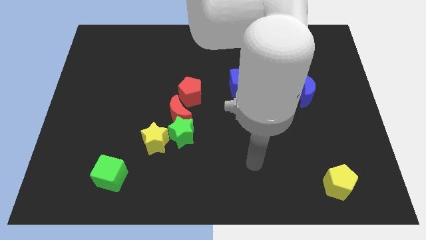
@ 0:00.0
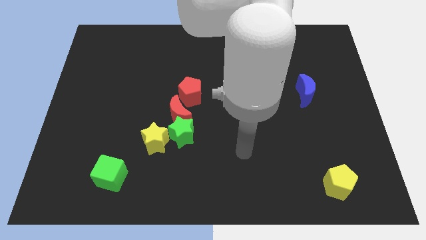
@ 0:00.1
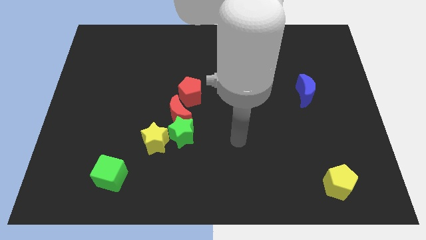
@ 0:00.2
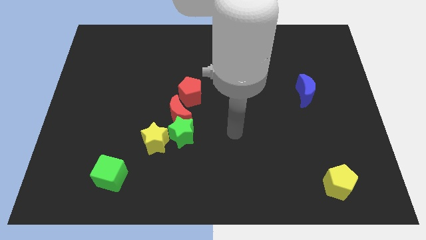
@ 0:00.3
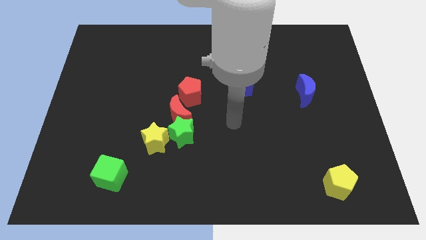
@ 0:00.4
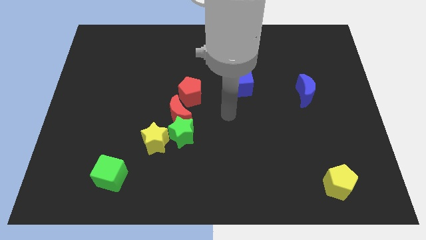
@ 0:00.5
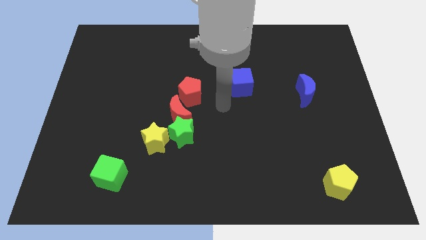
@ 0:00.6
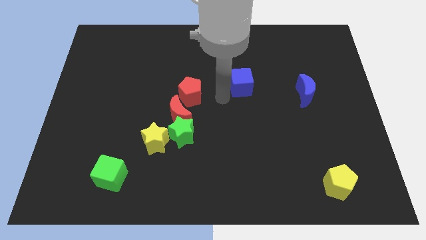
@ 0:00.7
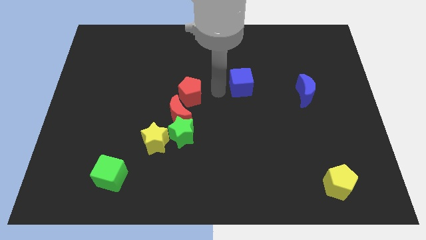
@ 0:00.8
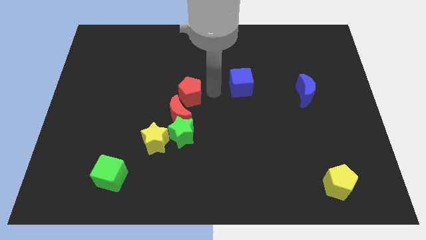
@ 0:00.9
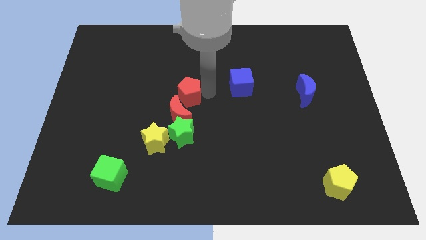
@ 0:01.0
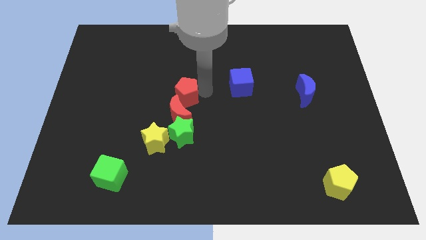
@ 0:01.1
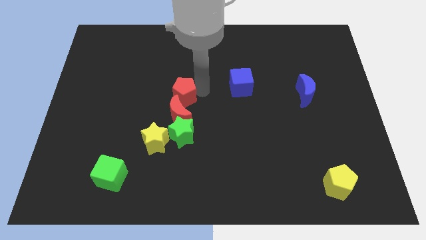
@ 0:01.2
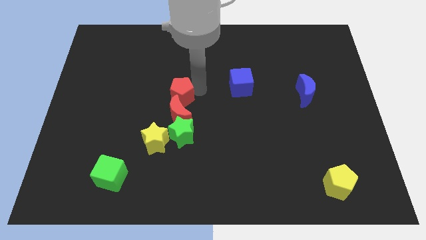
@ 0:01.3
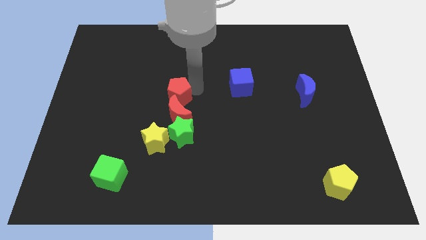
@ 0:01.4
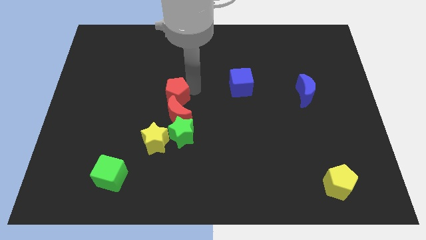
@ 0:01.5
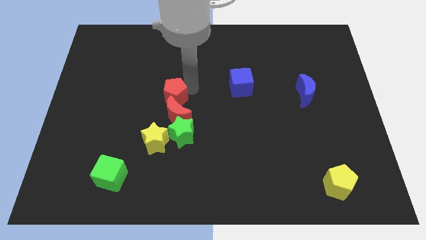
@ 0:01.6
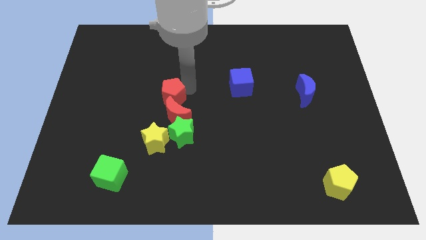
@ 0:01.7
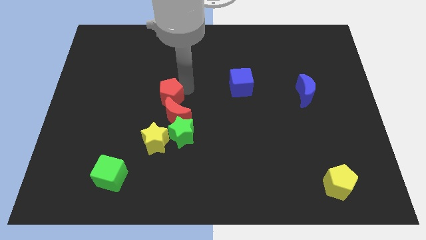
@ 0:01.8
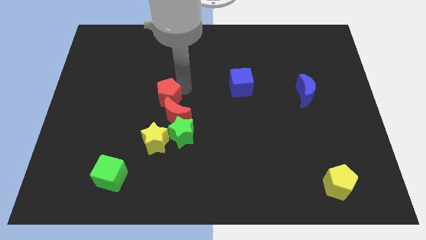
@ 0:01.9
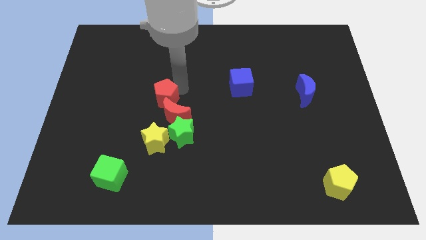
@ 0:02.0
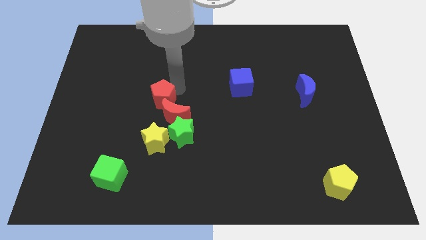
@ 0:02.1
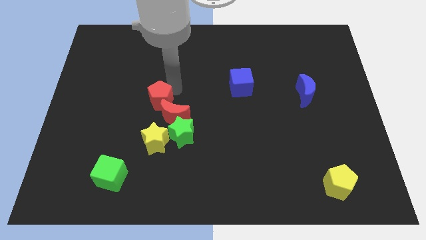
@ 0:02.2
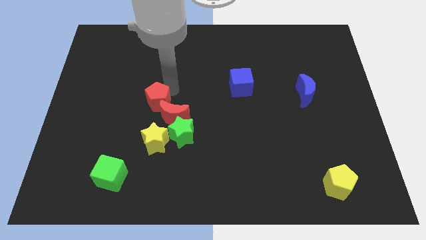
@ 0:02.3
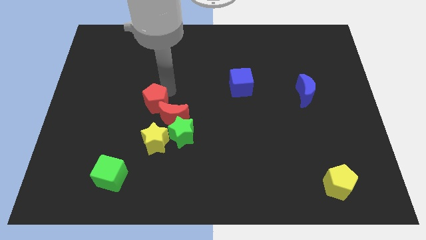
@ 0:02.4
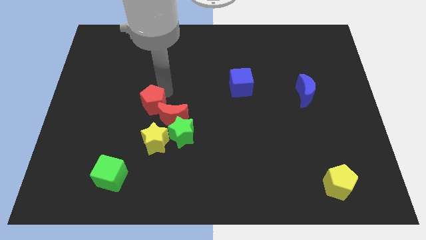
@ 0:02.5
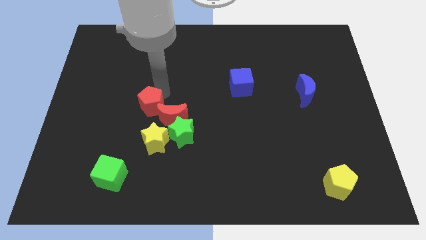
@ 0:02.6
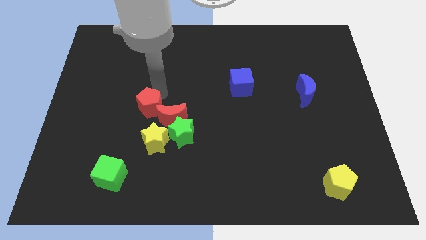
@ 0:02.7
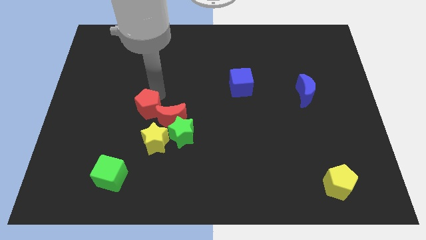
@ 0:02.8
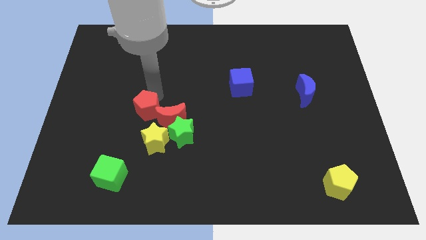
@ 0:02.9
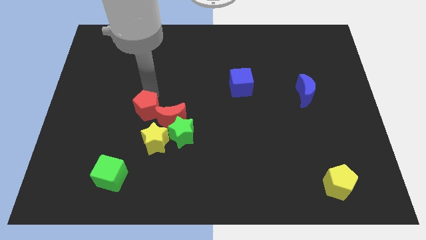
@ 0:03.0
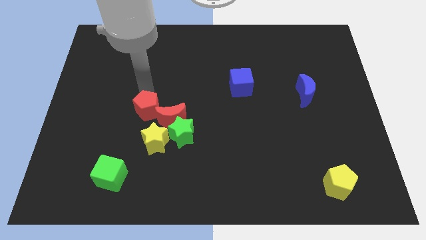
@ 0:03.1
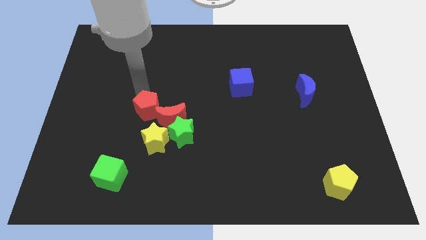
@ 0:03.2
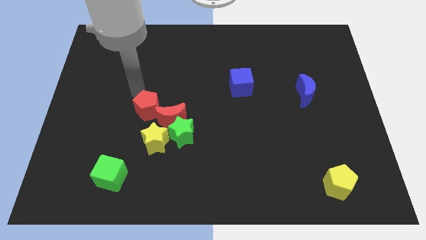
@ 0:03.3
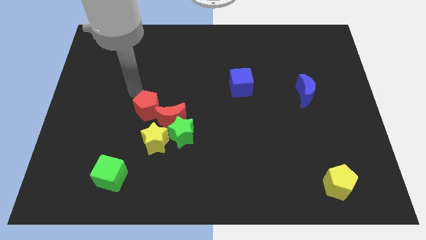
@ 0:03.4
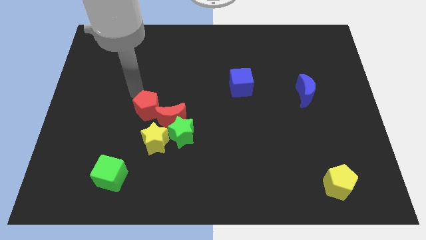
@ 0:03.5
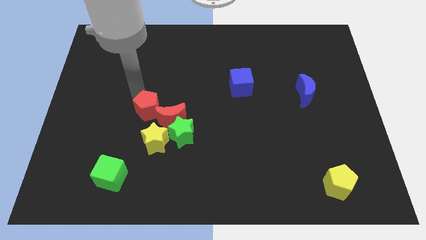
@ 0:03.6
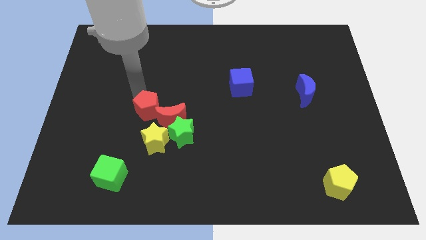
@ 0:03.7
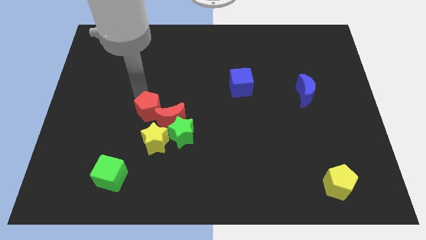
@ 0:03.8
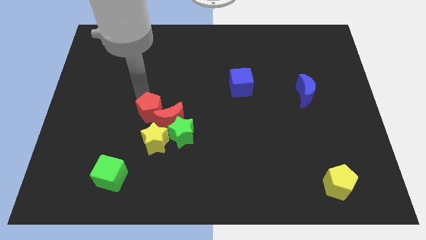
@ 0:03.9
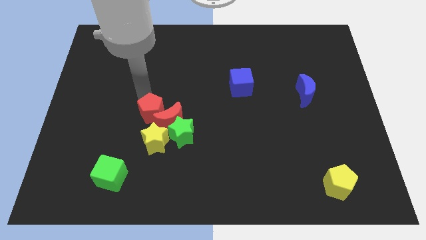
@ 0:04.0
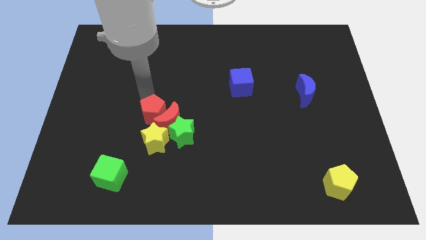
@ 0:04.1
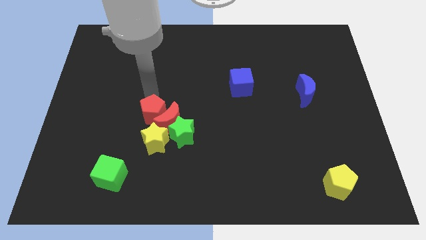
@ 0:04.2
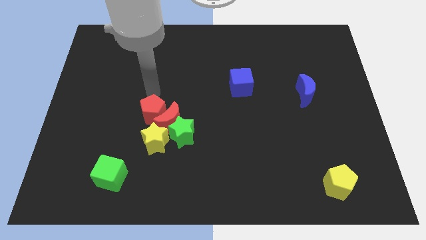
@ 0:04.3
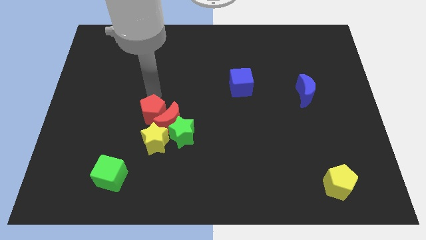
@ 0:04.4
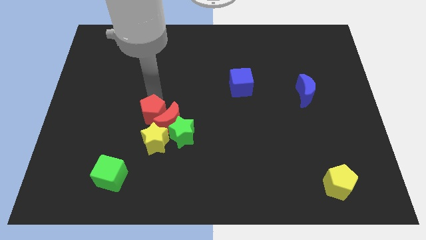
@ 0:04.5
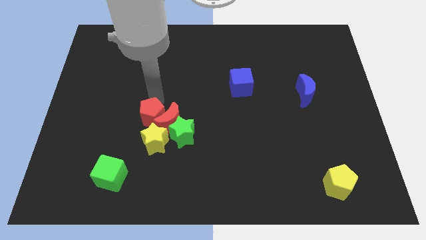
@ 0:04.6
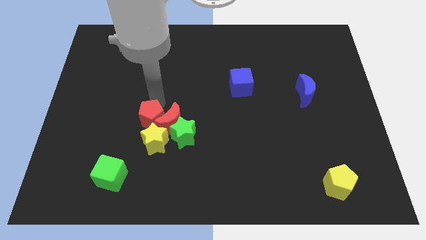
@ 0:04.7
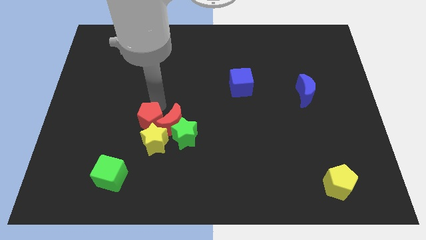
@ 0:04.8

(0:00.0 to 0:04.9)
push the red pentagon towards the yellow star

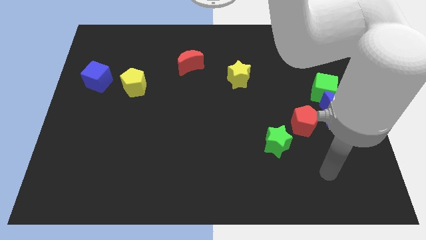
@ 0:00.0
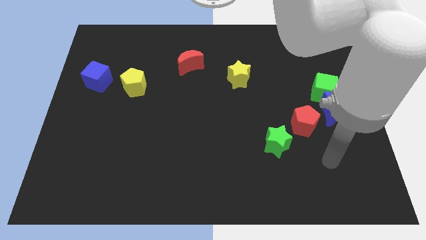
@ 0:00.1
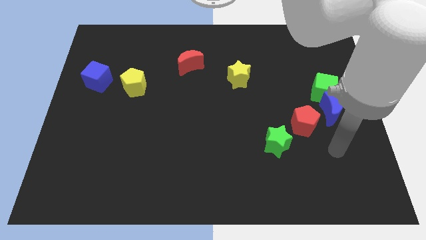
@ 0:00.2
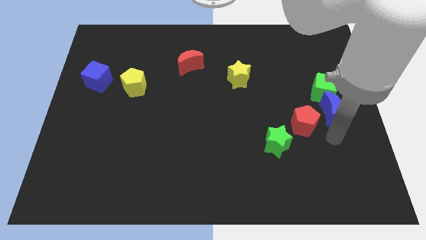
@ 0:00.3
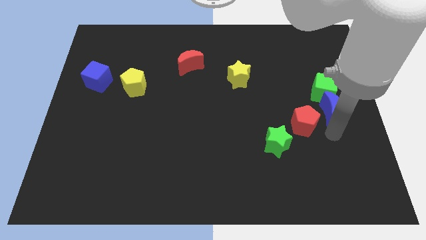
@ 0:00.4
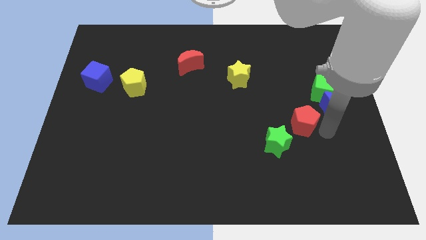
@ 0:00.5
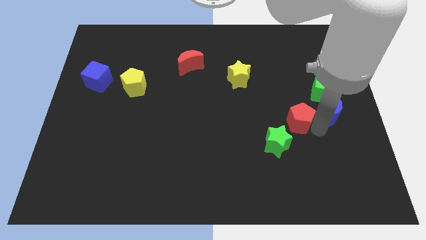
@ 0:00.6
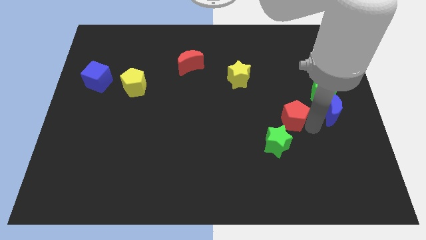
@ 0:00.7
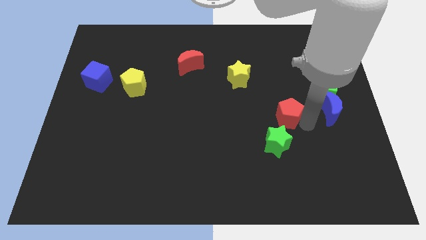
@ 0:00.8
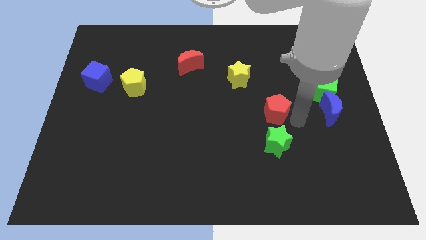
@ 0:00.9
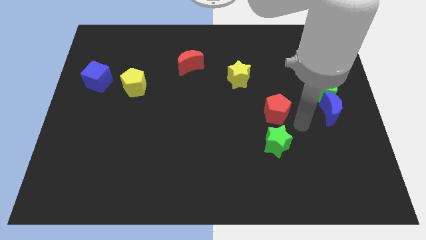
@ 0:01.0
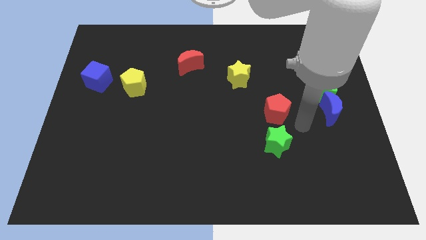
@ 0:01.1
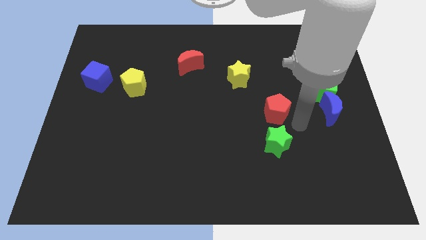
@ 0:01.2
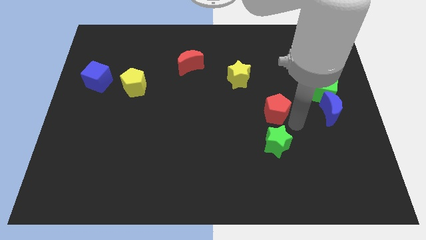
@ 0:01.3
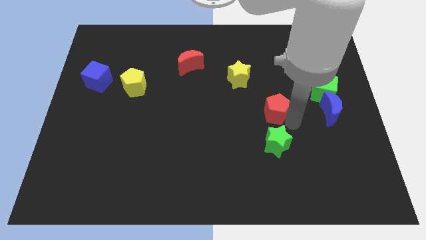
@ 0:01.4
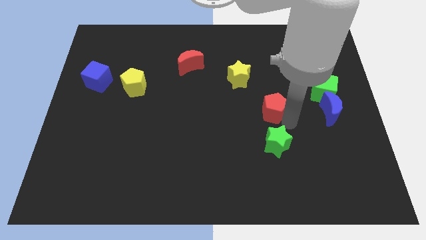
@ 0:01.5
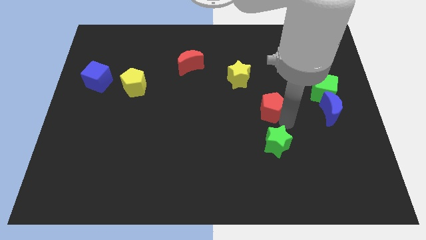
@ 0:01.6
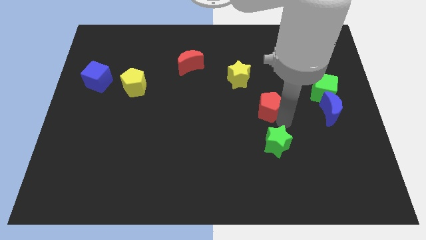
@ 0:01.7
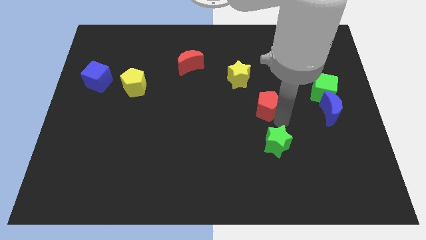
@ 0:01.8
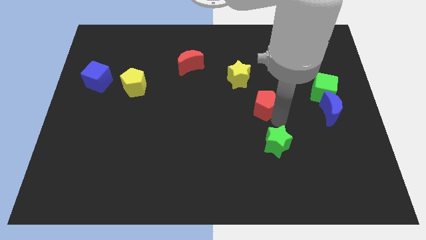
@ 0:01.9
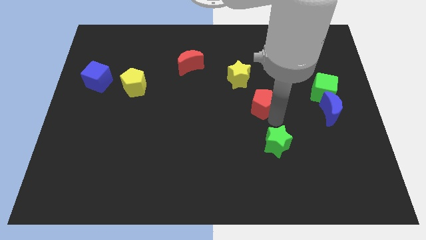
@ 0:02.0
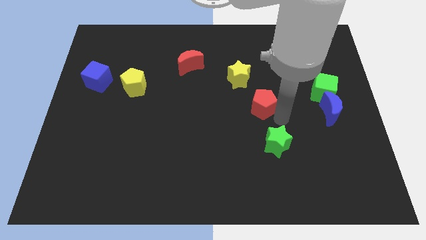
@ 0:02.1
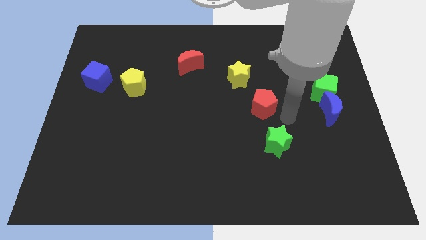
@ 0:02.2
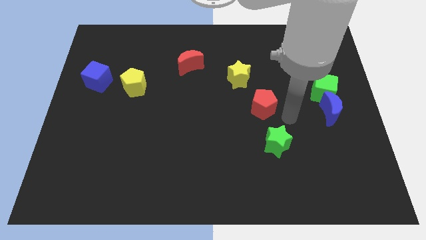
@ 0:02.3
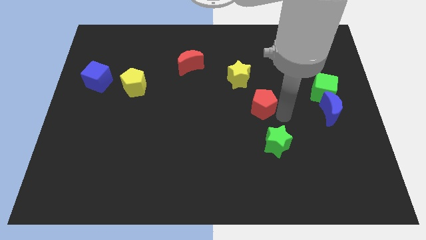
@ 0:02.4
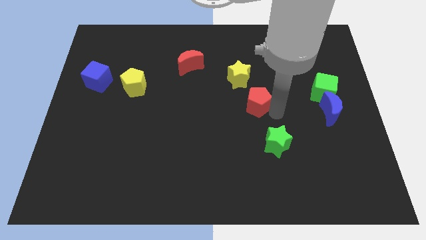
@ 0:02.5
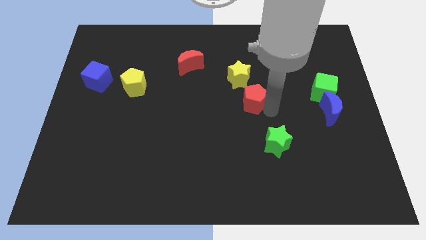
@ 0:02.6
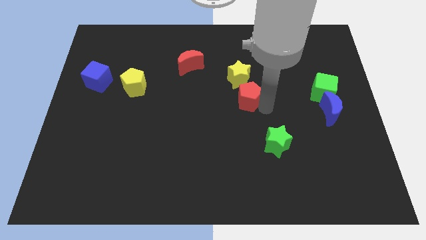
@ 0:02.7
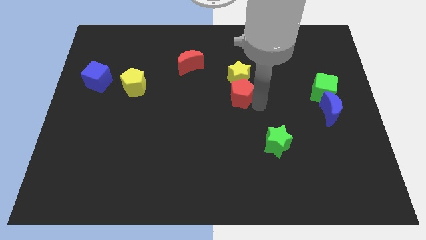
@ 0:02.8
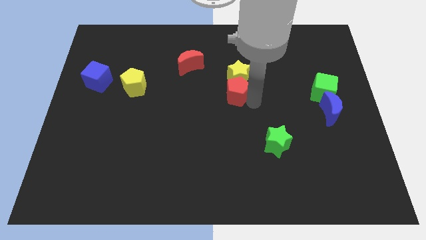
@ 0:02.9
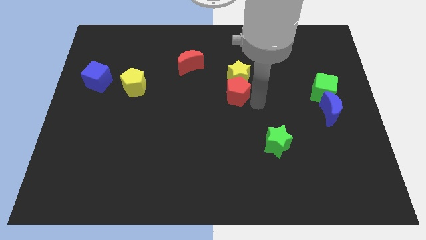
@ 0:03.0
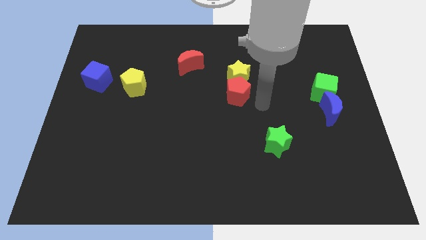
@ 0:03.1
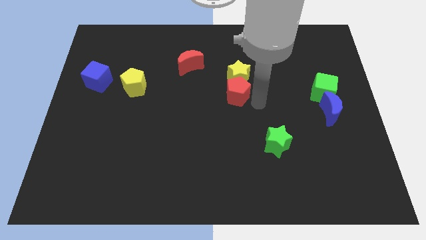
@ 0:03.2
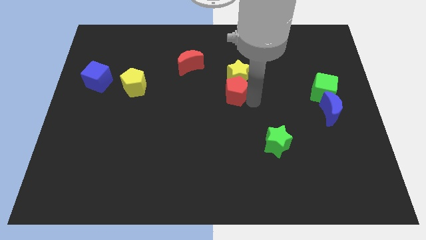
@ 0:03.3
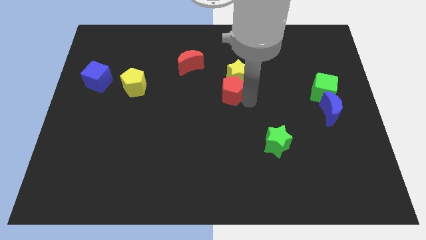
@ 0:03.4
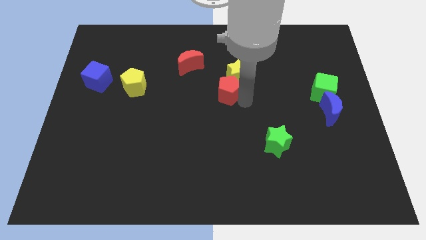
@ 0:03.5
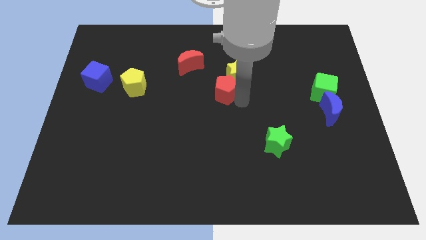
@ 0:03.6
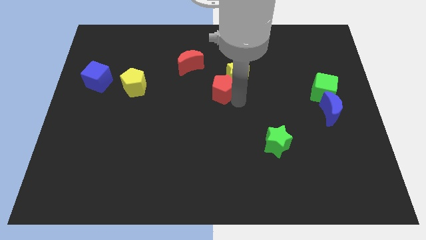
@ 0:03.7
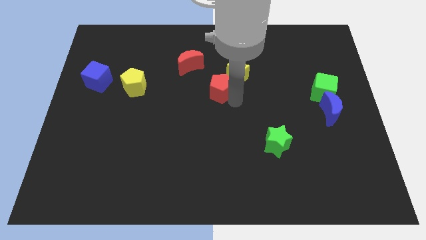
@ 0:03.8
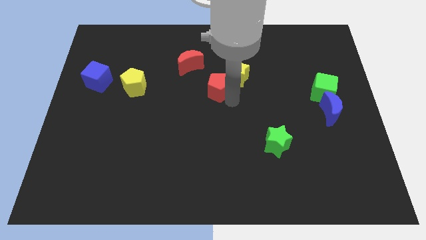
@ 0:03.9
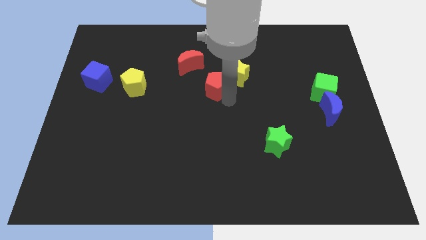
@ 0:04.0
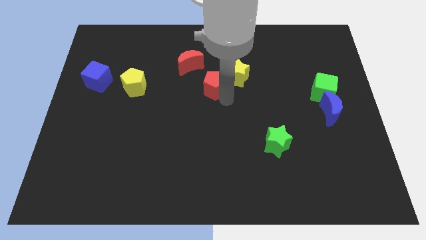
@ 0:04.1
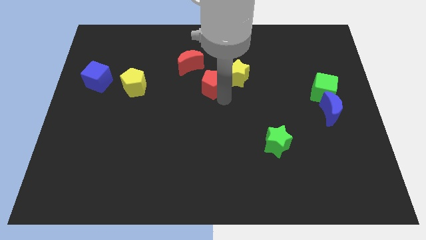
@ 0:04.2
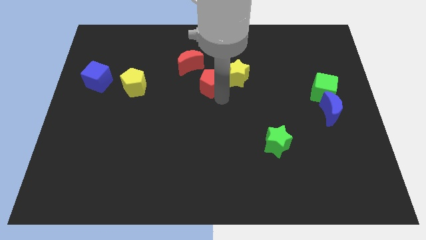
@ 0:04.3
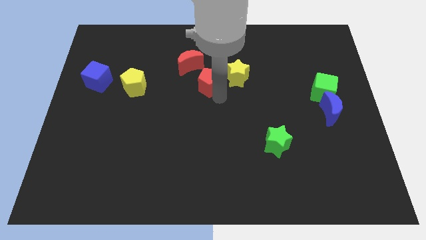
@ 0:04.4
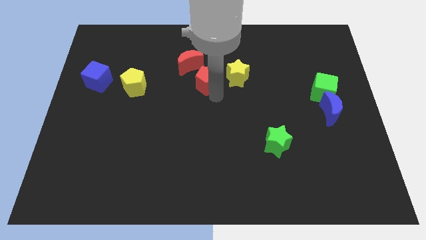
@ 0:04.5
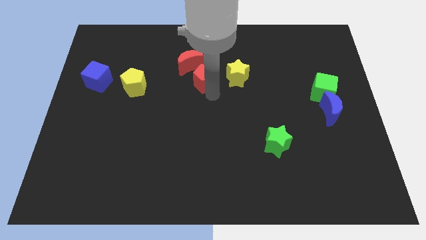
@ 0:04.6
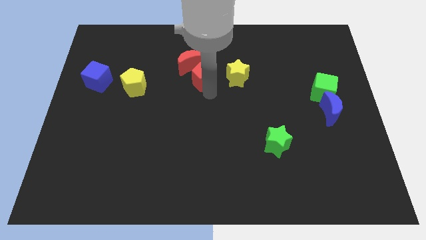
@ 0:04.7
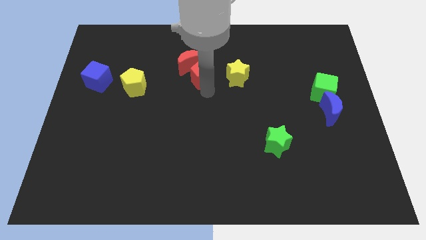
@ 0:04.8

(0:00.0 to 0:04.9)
put the red pentagon close to the red moon
